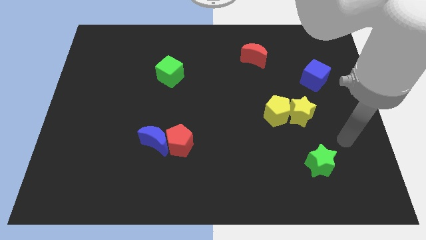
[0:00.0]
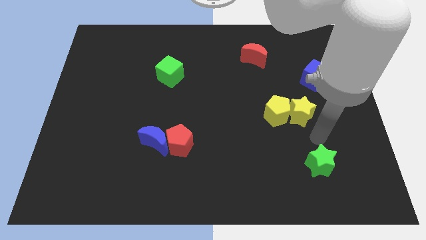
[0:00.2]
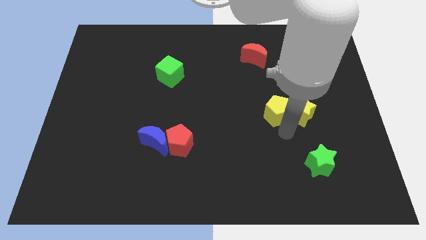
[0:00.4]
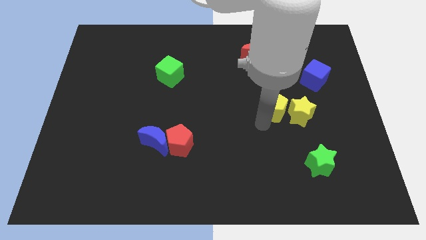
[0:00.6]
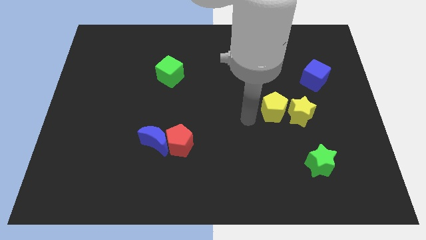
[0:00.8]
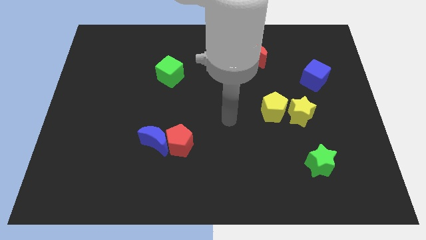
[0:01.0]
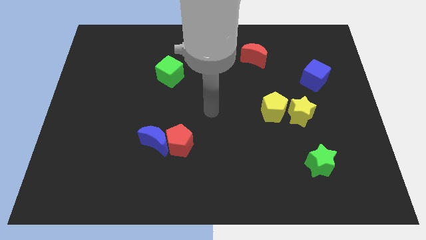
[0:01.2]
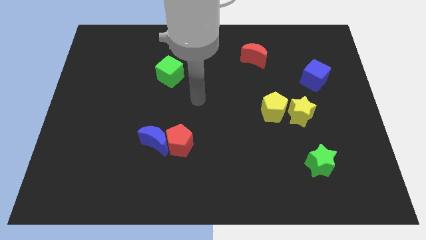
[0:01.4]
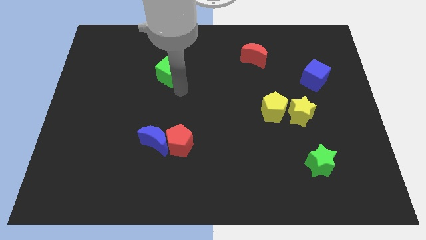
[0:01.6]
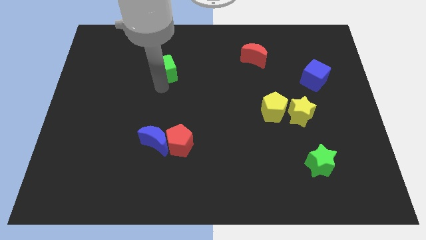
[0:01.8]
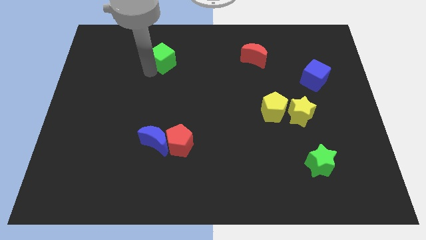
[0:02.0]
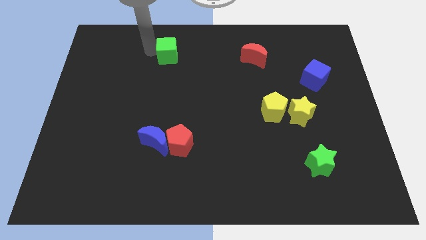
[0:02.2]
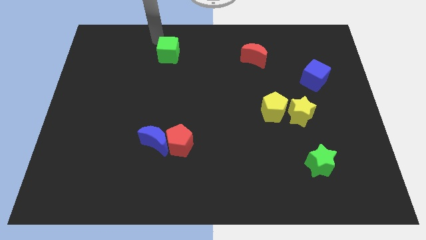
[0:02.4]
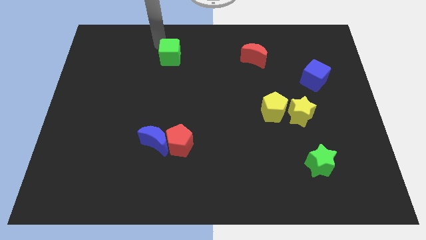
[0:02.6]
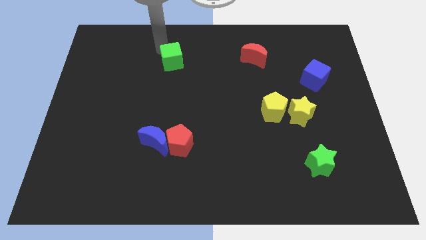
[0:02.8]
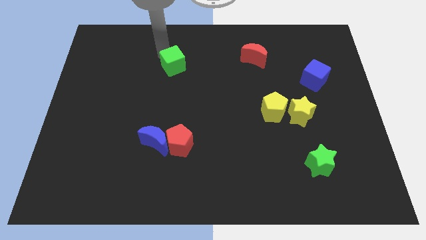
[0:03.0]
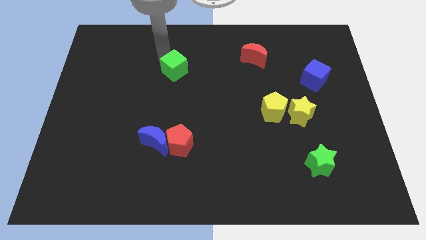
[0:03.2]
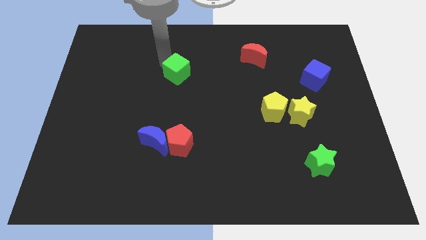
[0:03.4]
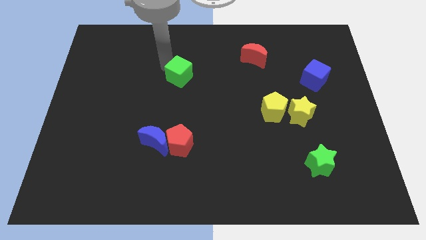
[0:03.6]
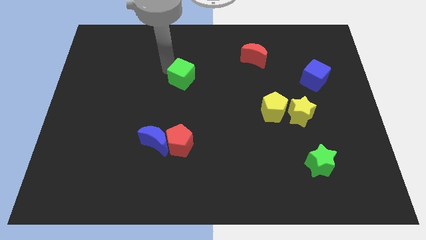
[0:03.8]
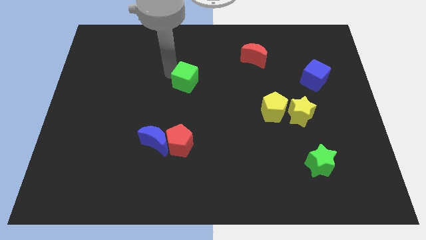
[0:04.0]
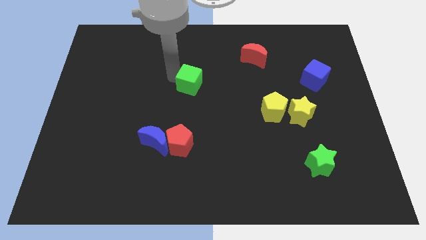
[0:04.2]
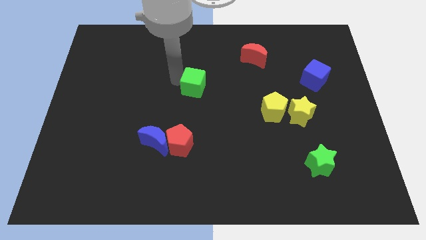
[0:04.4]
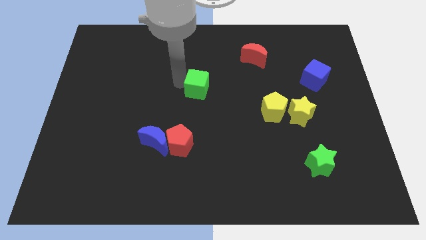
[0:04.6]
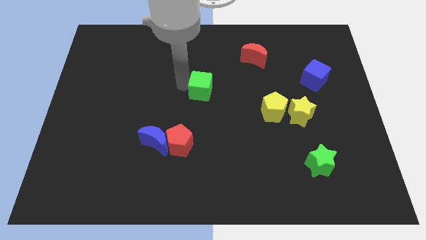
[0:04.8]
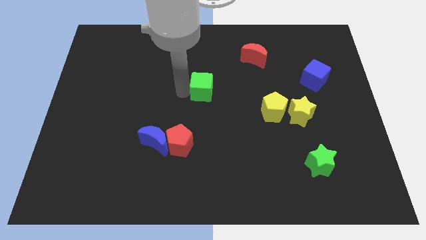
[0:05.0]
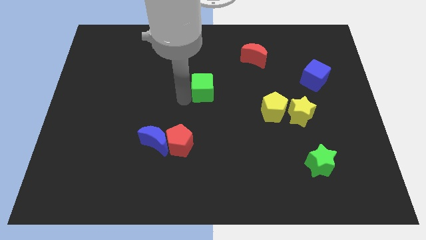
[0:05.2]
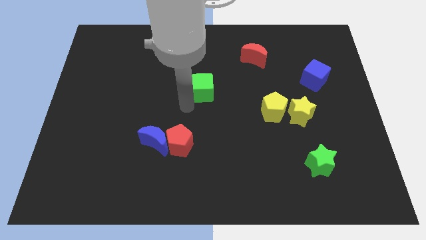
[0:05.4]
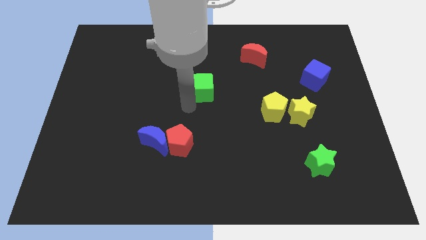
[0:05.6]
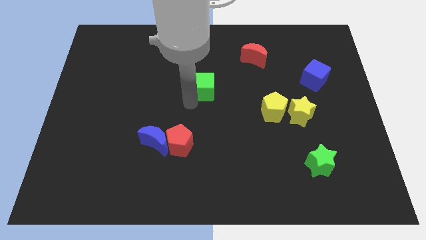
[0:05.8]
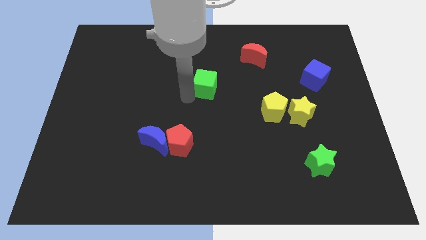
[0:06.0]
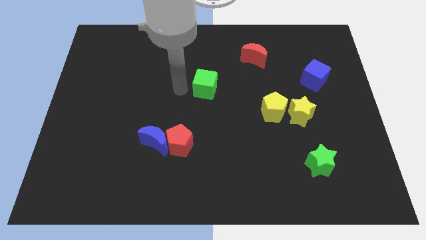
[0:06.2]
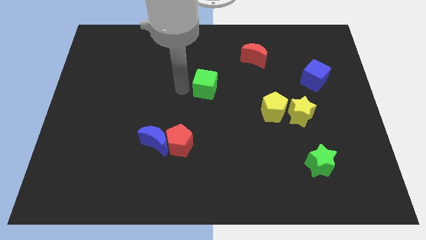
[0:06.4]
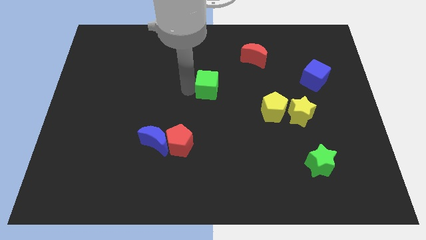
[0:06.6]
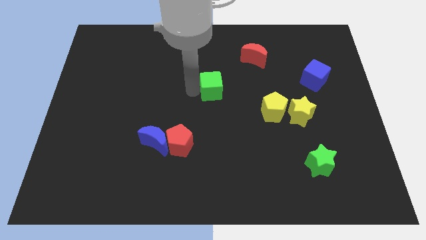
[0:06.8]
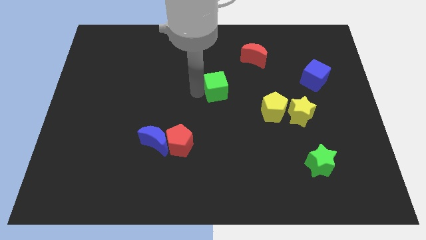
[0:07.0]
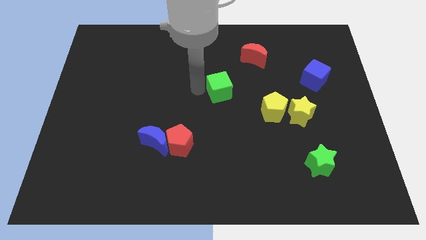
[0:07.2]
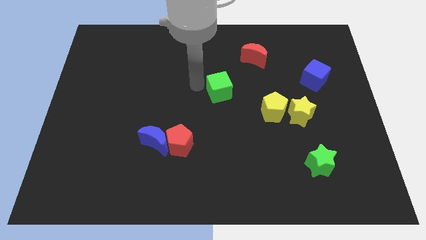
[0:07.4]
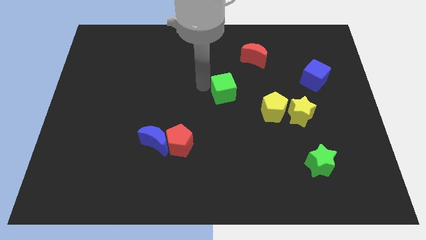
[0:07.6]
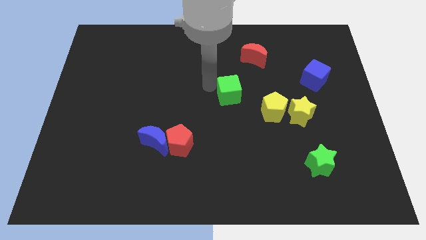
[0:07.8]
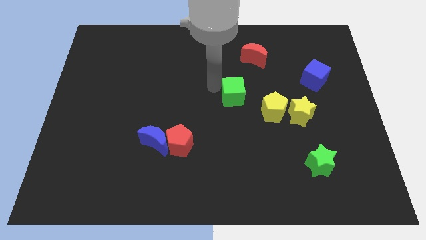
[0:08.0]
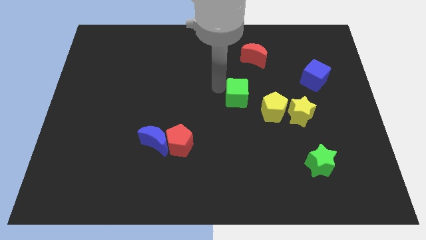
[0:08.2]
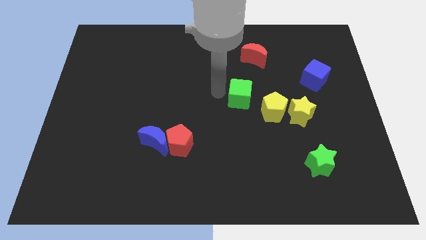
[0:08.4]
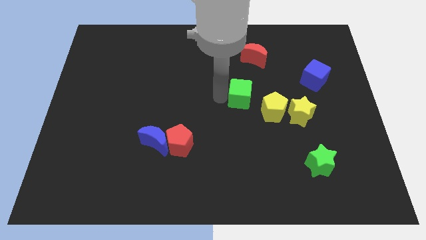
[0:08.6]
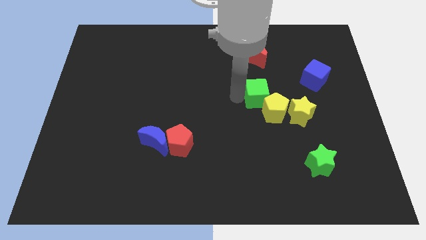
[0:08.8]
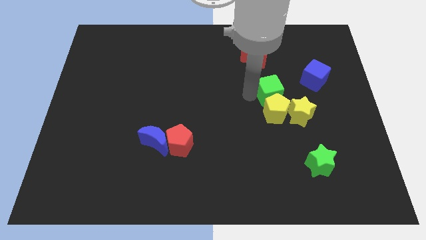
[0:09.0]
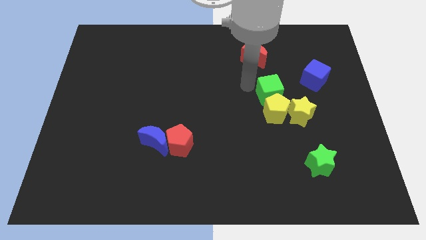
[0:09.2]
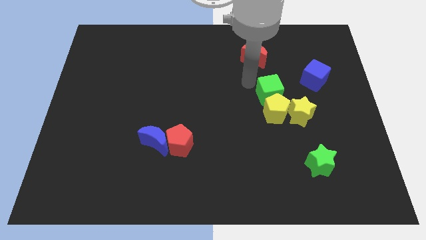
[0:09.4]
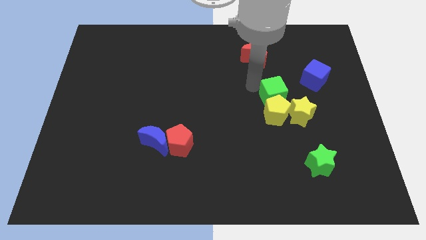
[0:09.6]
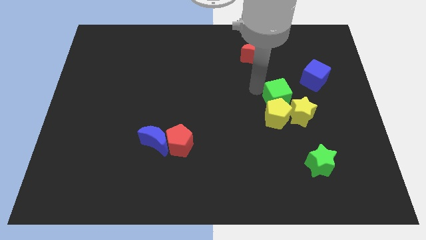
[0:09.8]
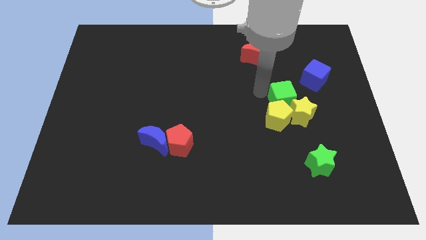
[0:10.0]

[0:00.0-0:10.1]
put the green cube to the yellow star

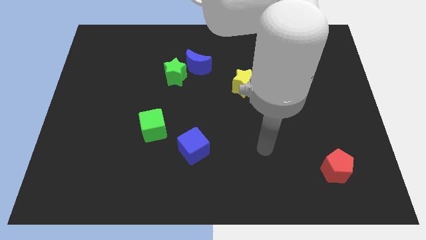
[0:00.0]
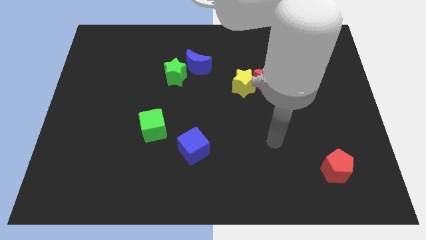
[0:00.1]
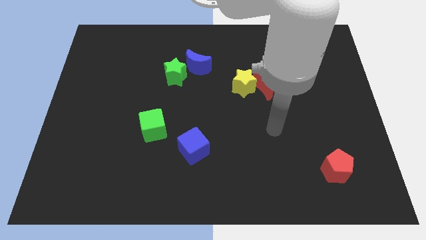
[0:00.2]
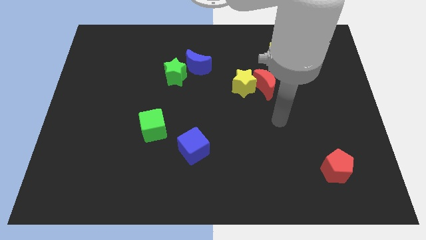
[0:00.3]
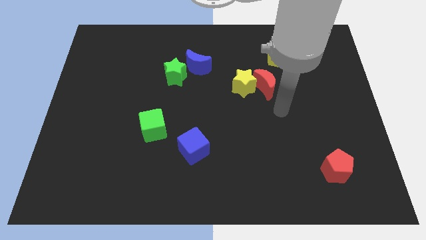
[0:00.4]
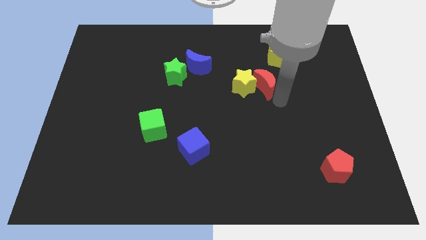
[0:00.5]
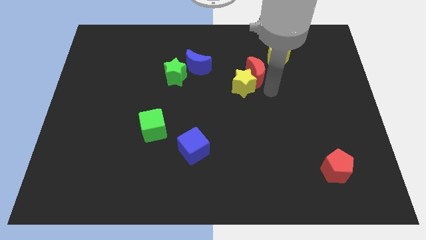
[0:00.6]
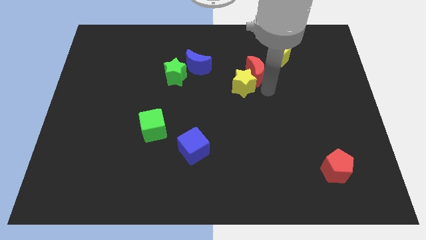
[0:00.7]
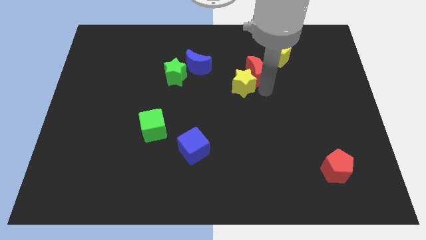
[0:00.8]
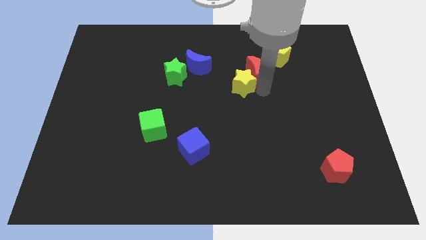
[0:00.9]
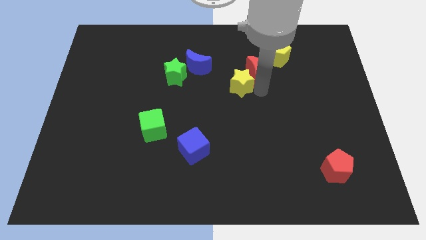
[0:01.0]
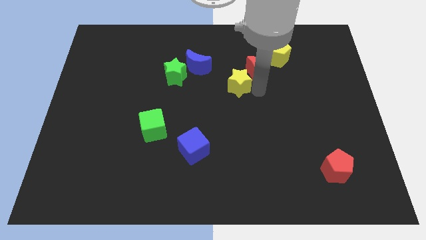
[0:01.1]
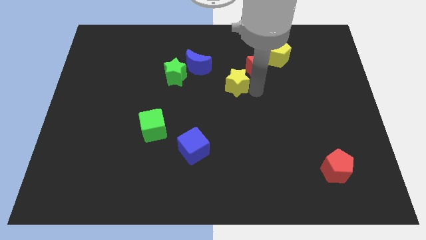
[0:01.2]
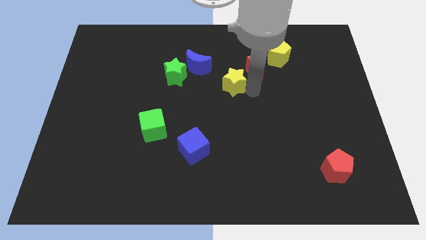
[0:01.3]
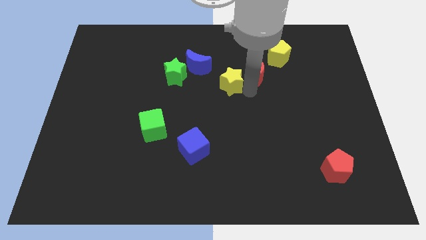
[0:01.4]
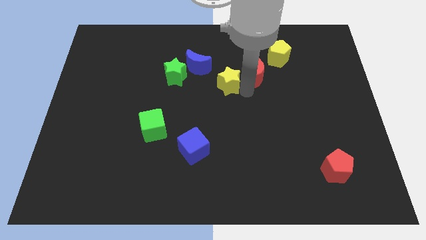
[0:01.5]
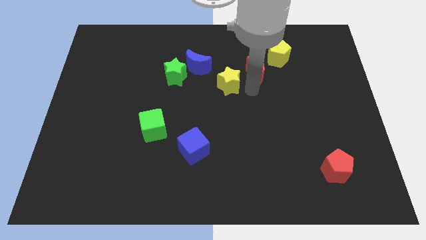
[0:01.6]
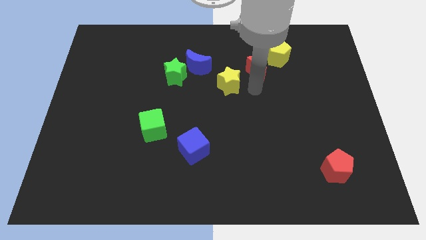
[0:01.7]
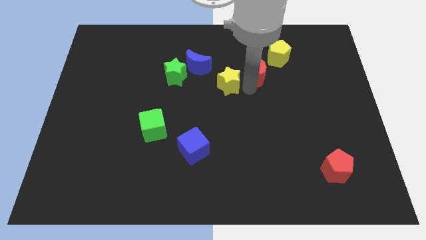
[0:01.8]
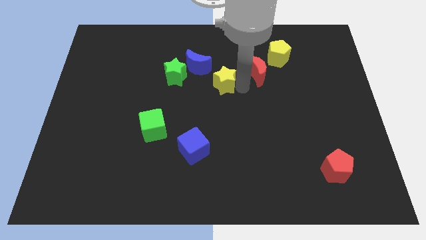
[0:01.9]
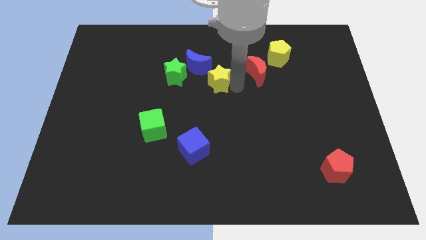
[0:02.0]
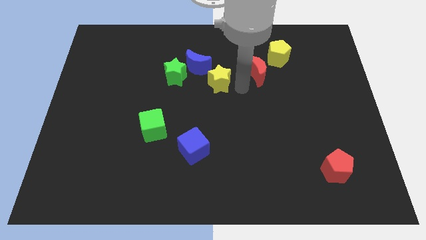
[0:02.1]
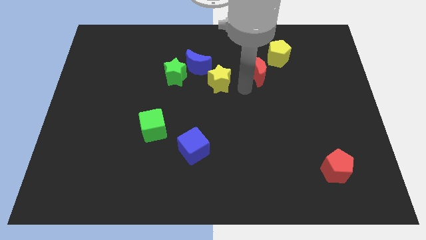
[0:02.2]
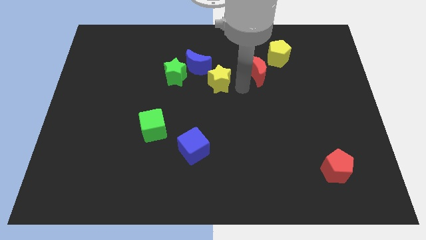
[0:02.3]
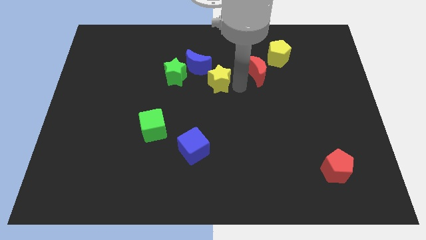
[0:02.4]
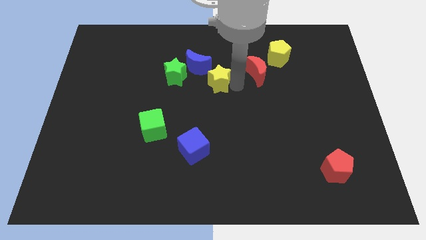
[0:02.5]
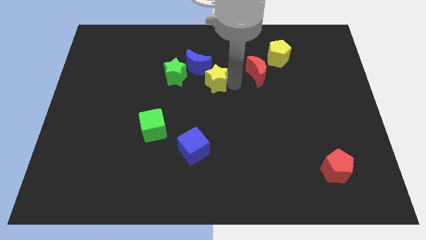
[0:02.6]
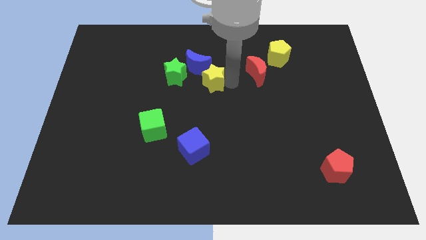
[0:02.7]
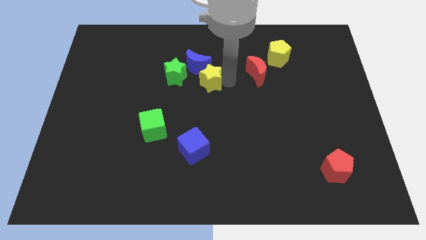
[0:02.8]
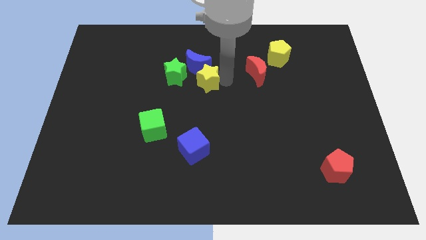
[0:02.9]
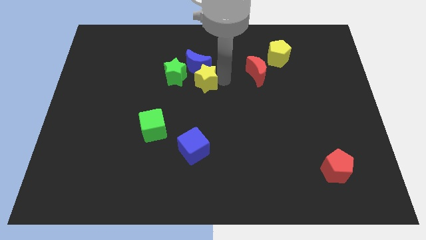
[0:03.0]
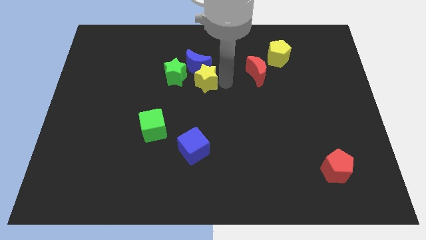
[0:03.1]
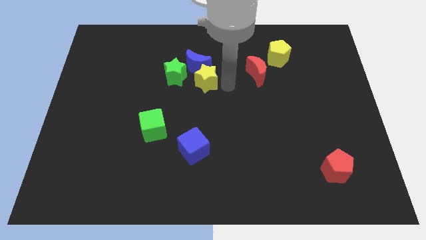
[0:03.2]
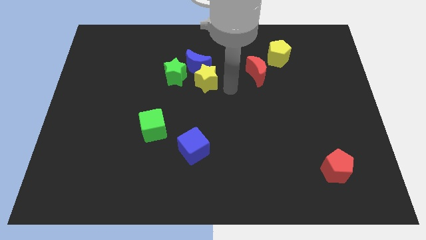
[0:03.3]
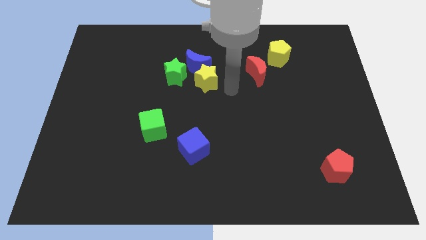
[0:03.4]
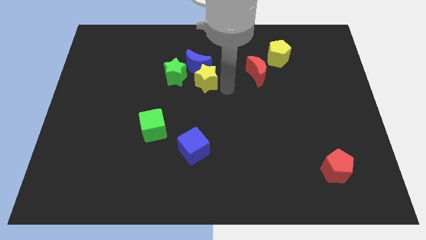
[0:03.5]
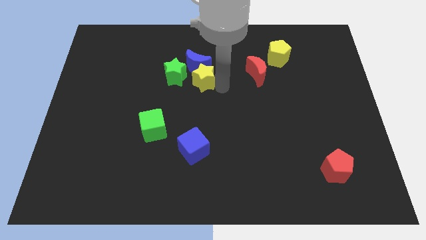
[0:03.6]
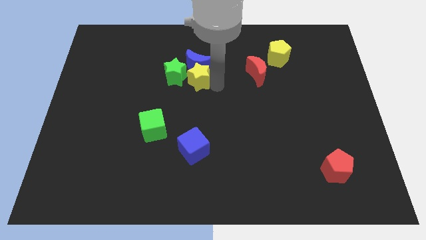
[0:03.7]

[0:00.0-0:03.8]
move the yellow star close to the green star
